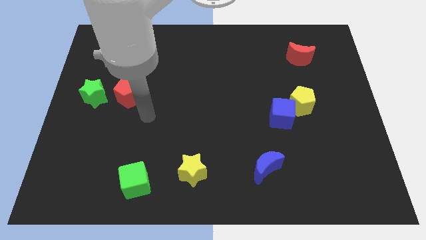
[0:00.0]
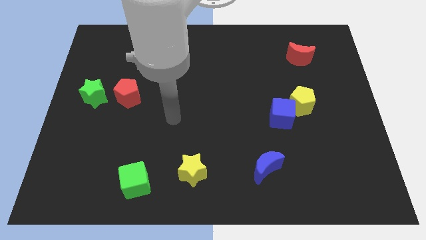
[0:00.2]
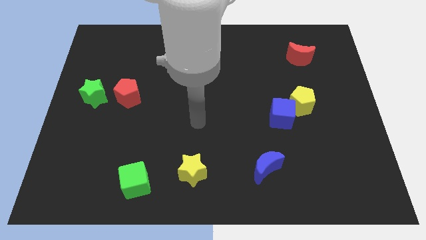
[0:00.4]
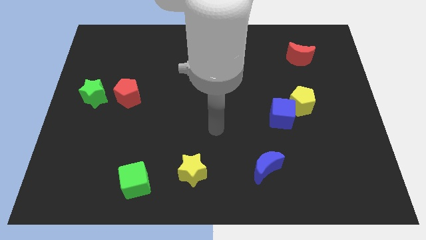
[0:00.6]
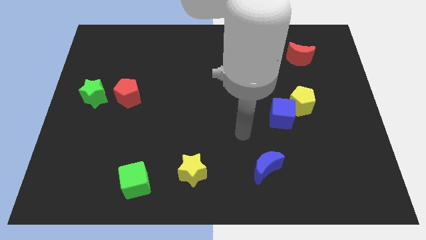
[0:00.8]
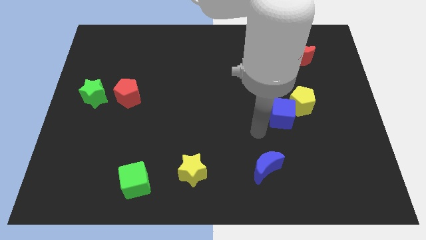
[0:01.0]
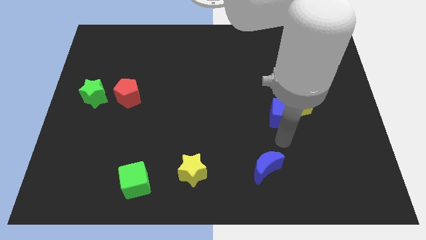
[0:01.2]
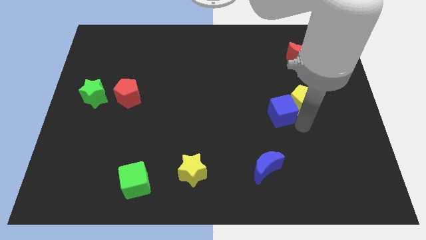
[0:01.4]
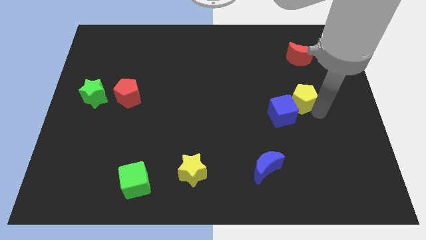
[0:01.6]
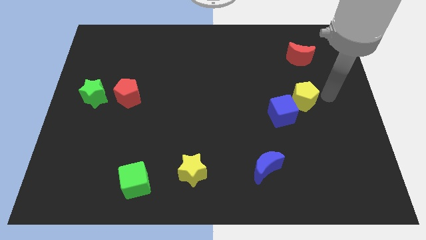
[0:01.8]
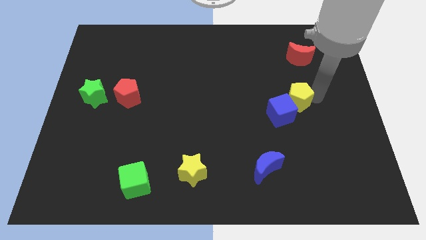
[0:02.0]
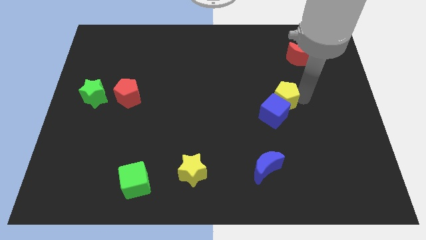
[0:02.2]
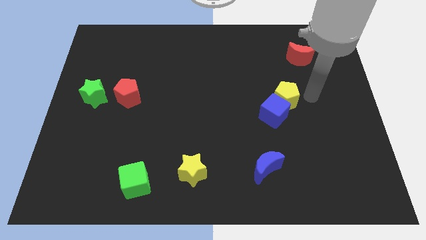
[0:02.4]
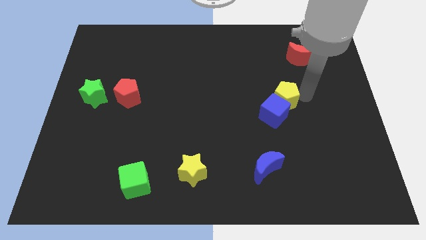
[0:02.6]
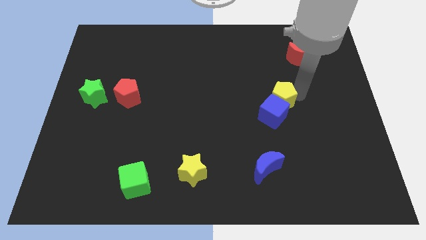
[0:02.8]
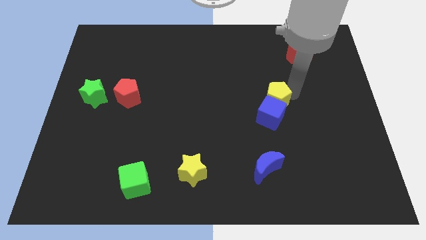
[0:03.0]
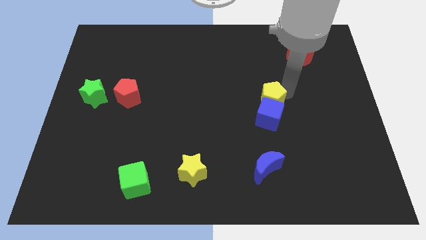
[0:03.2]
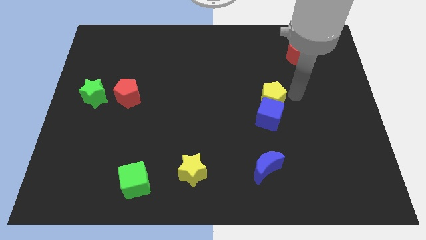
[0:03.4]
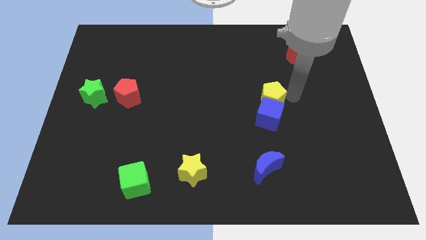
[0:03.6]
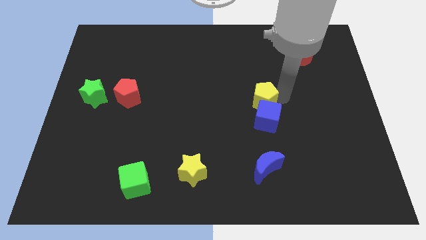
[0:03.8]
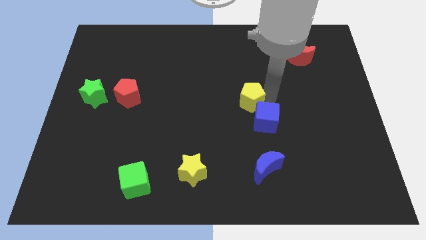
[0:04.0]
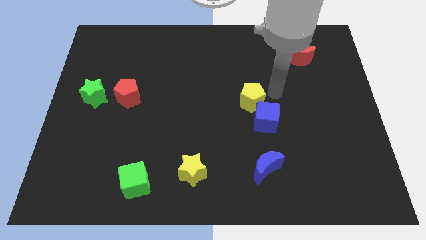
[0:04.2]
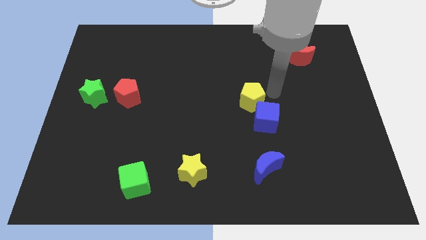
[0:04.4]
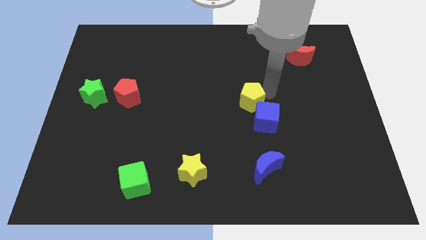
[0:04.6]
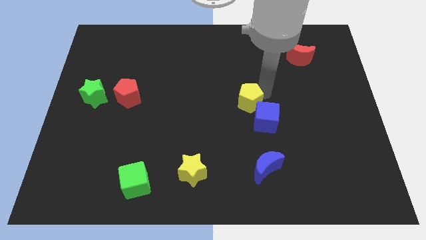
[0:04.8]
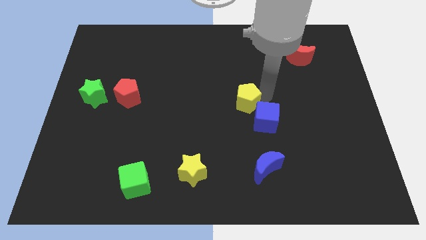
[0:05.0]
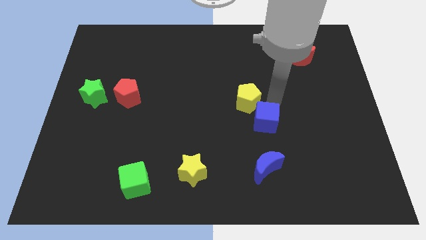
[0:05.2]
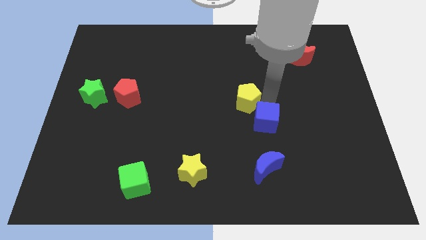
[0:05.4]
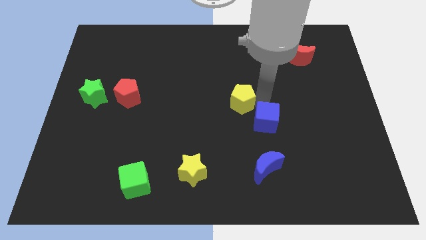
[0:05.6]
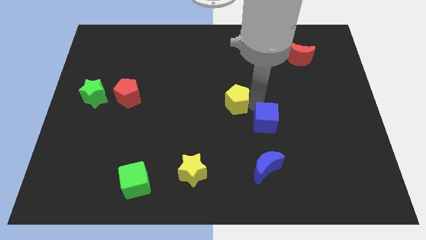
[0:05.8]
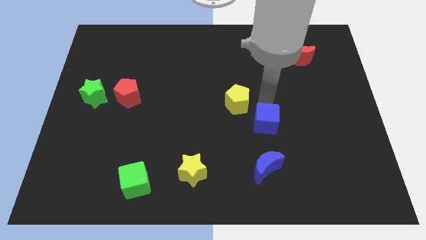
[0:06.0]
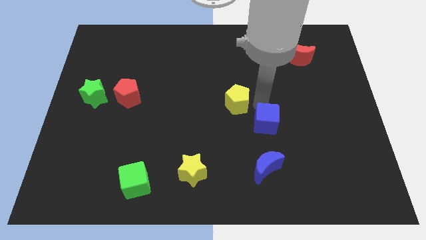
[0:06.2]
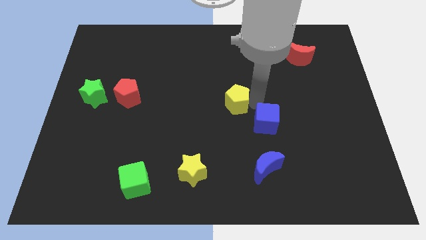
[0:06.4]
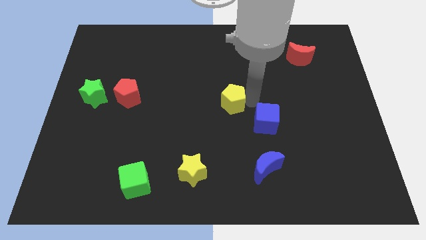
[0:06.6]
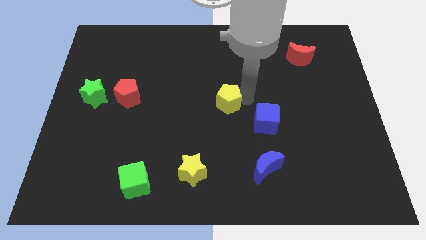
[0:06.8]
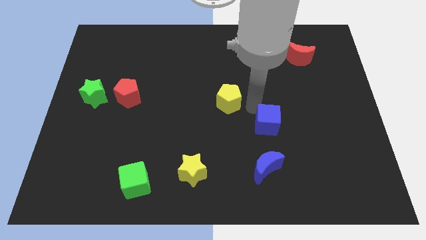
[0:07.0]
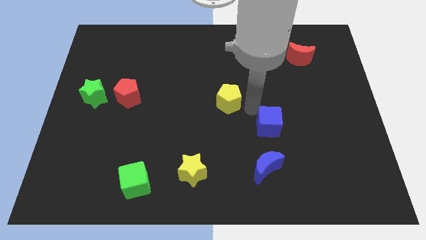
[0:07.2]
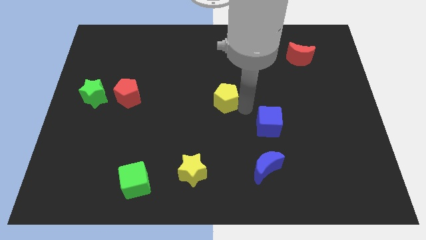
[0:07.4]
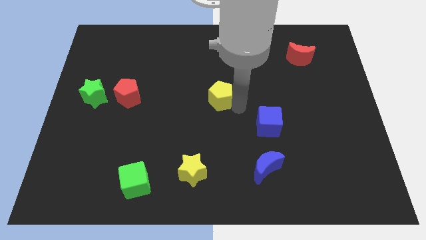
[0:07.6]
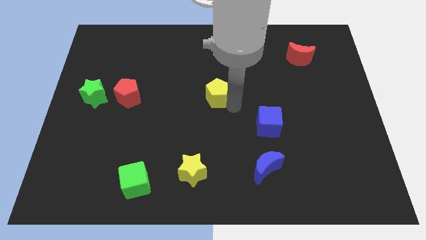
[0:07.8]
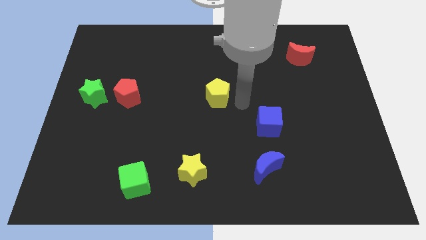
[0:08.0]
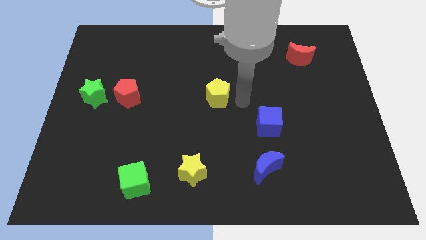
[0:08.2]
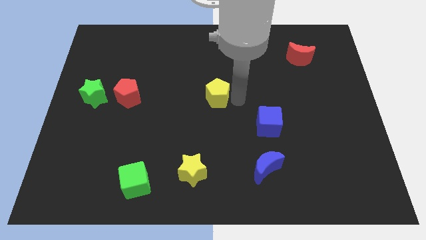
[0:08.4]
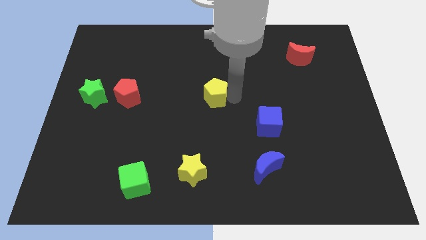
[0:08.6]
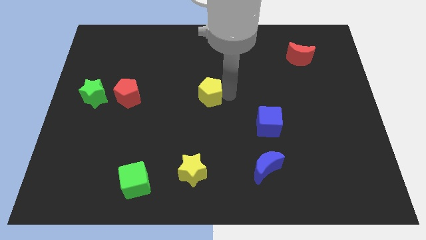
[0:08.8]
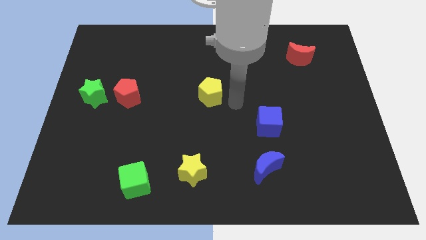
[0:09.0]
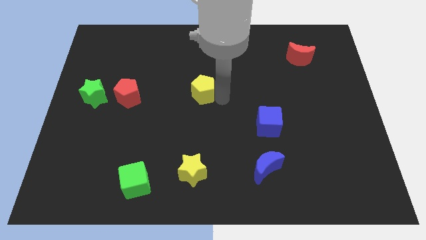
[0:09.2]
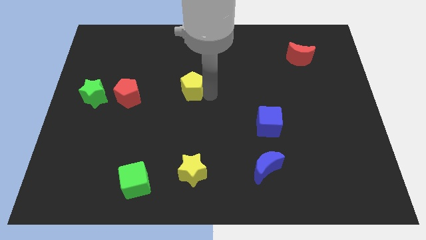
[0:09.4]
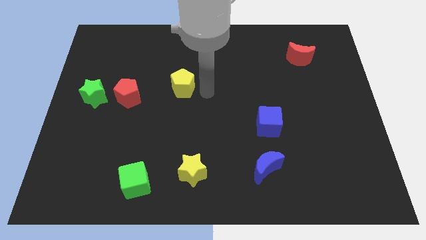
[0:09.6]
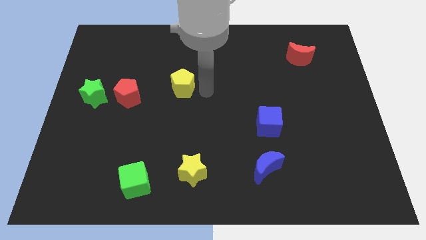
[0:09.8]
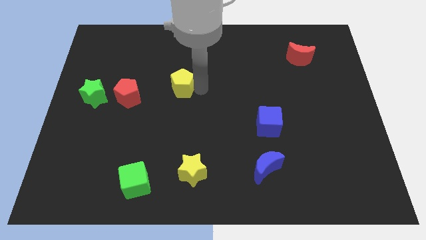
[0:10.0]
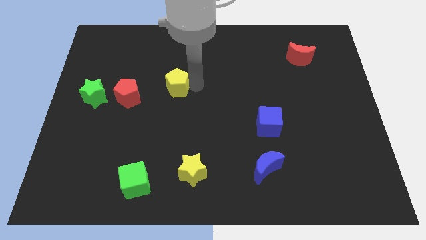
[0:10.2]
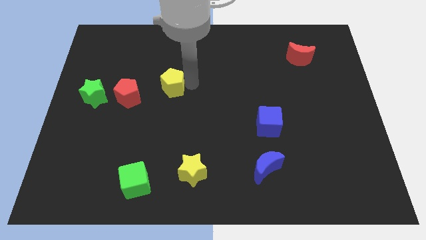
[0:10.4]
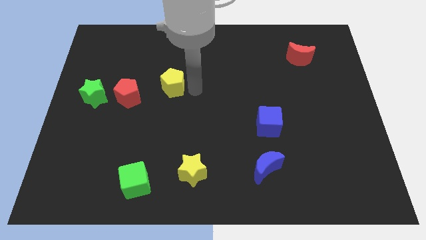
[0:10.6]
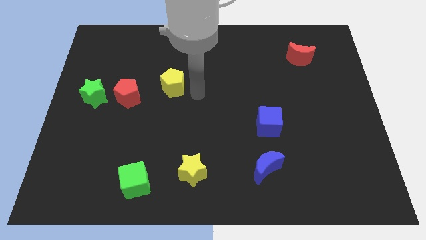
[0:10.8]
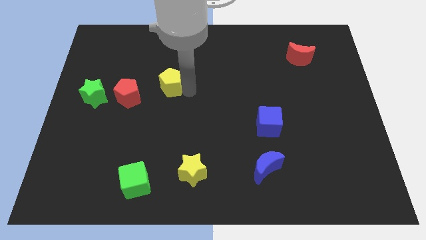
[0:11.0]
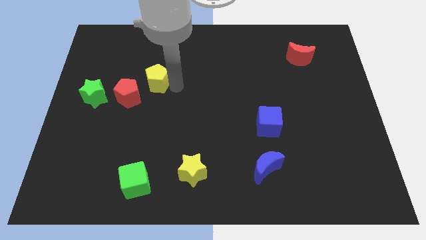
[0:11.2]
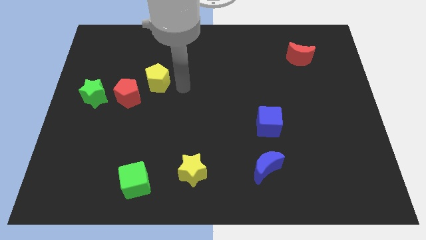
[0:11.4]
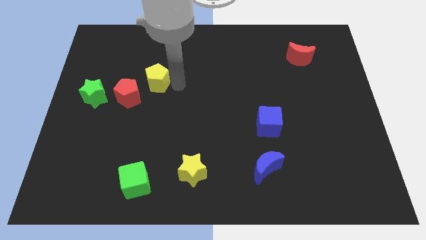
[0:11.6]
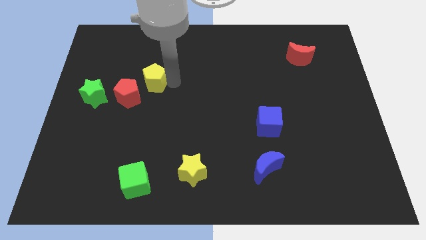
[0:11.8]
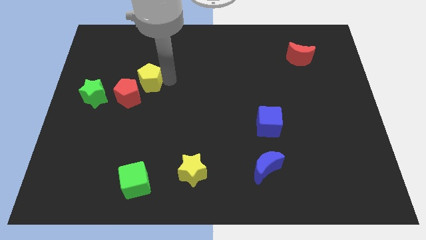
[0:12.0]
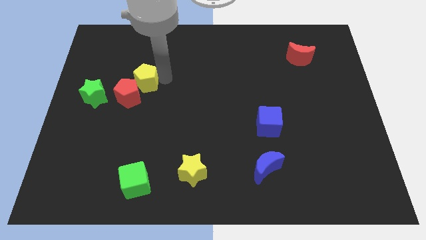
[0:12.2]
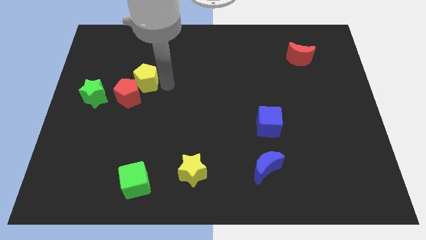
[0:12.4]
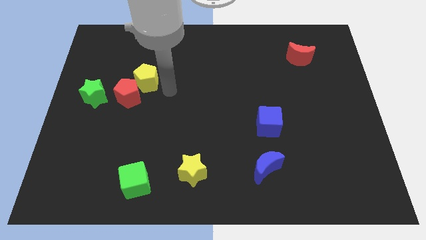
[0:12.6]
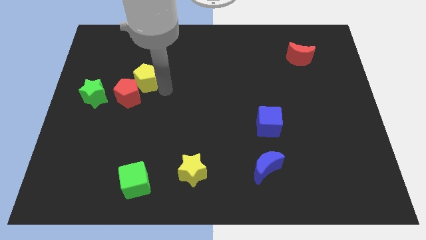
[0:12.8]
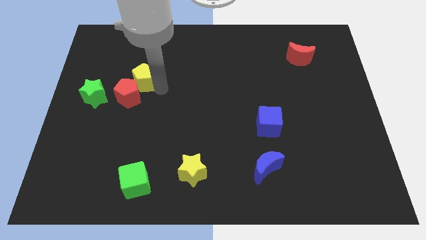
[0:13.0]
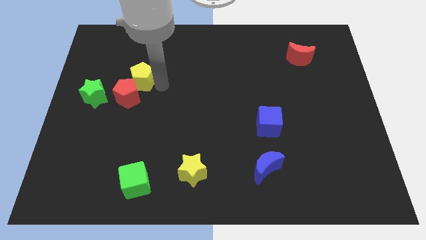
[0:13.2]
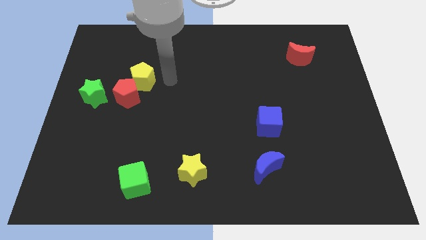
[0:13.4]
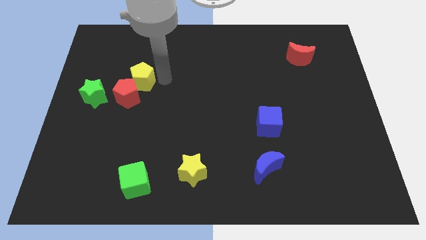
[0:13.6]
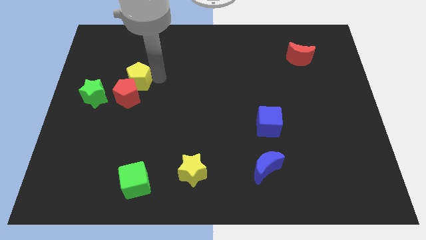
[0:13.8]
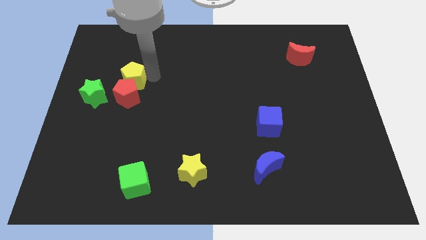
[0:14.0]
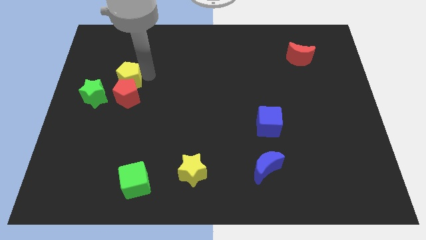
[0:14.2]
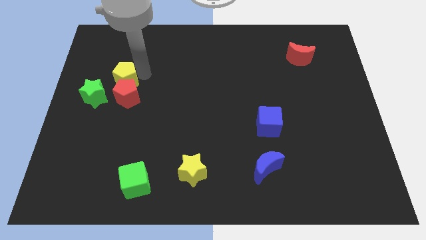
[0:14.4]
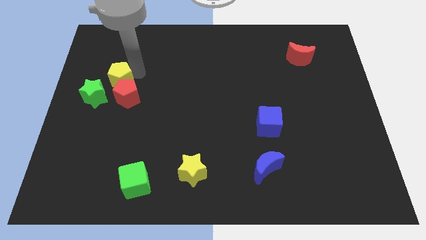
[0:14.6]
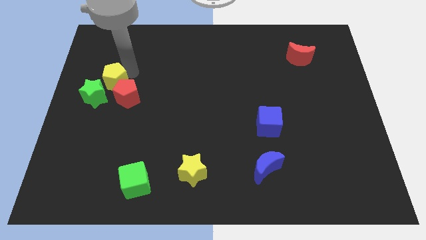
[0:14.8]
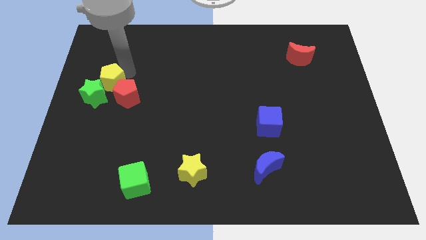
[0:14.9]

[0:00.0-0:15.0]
push the yellow pentagon close to the green star

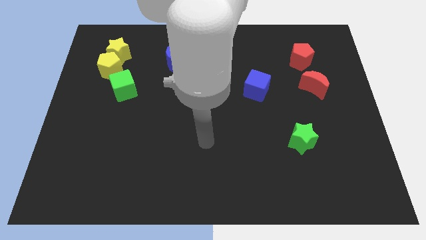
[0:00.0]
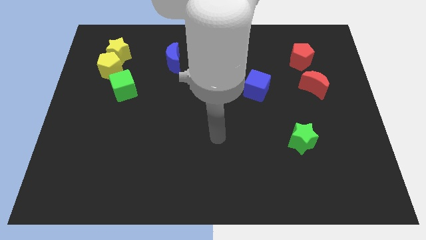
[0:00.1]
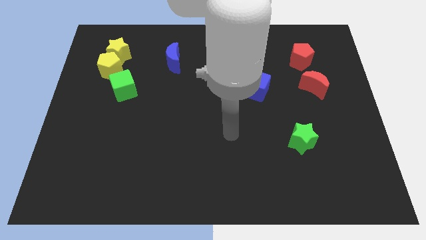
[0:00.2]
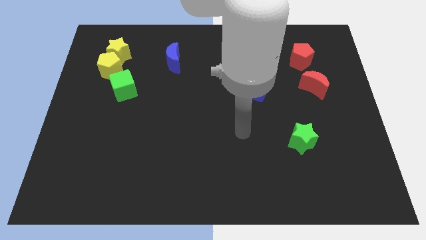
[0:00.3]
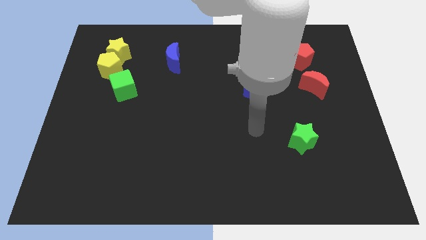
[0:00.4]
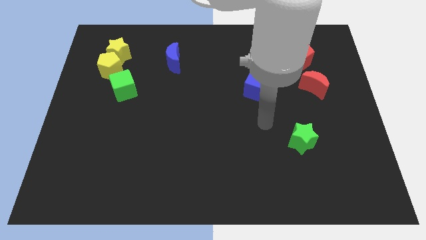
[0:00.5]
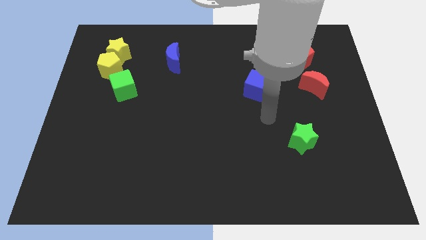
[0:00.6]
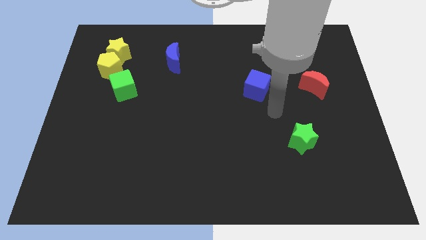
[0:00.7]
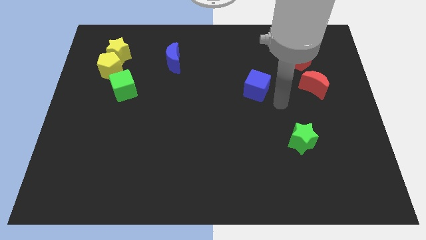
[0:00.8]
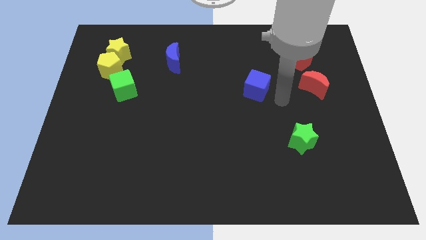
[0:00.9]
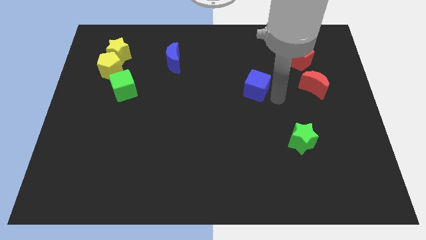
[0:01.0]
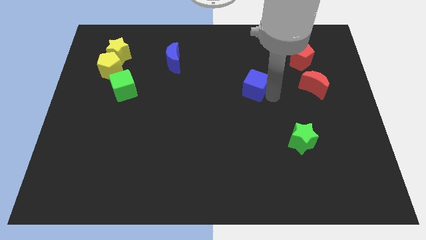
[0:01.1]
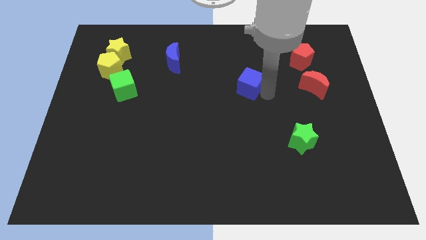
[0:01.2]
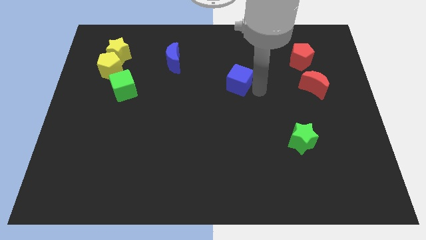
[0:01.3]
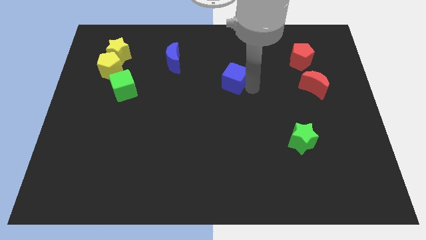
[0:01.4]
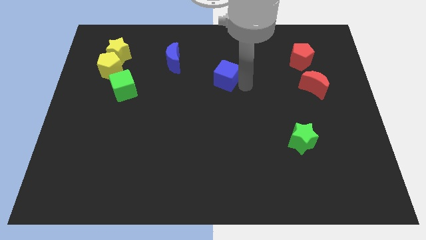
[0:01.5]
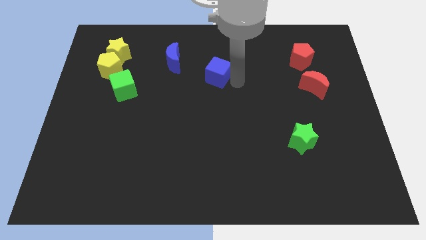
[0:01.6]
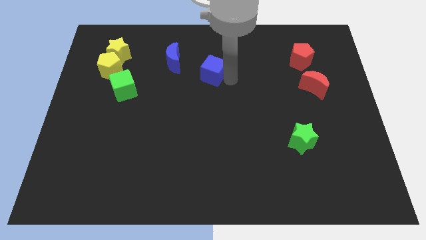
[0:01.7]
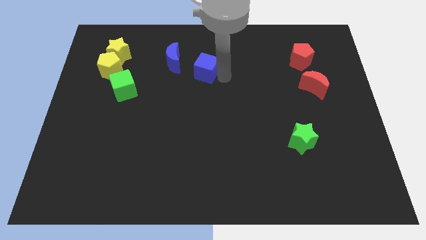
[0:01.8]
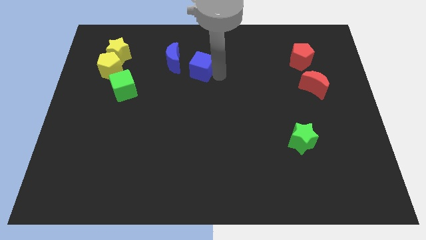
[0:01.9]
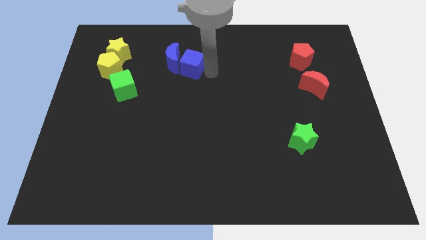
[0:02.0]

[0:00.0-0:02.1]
push the blue cube close to the blue moon
